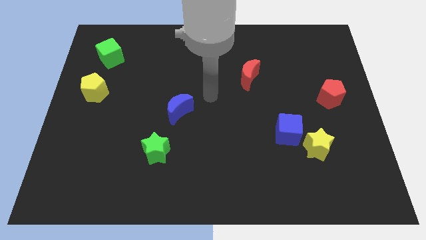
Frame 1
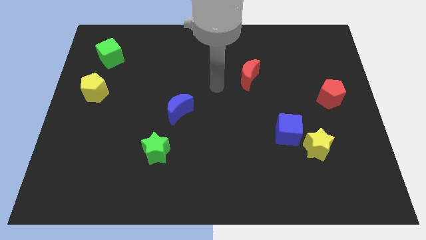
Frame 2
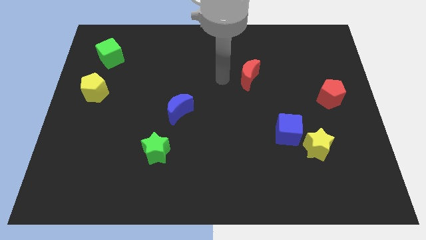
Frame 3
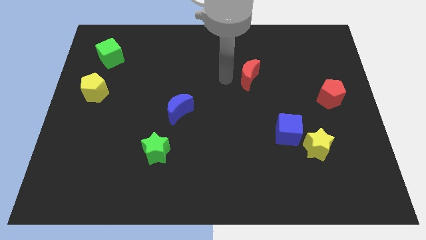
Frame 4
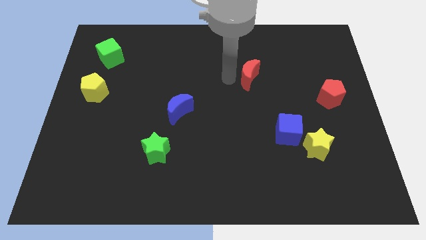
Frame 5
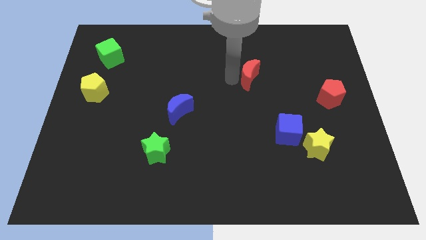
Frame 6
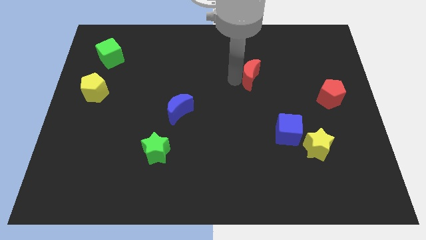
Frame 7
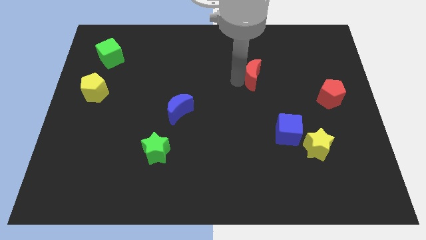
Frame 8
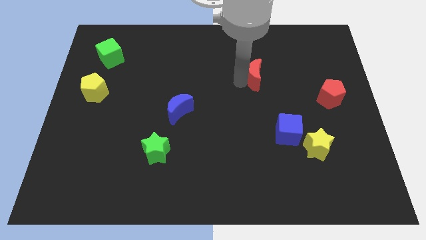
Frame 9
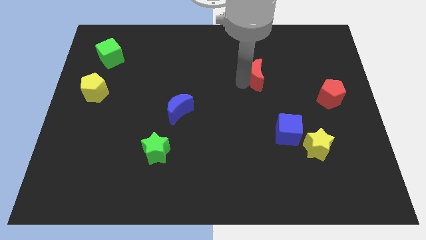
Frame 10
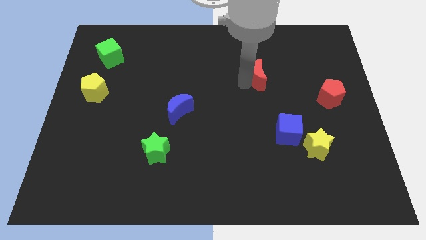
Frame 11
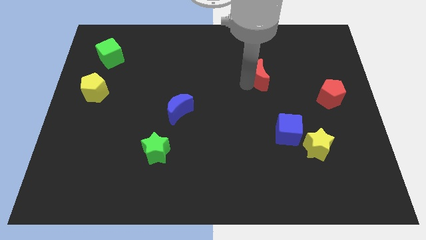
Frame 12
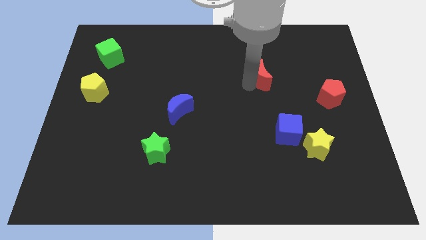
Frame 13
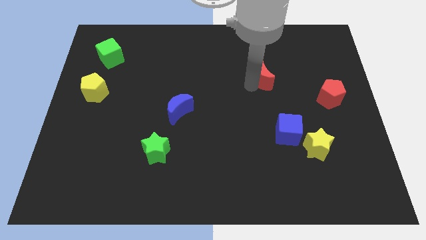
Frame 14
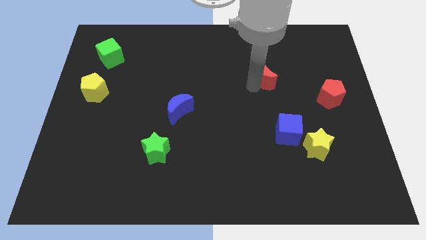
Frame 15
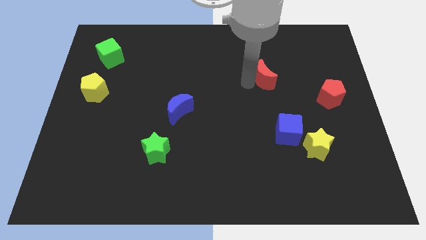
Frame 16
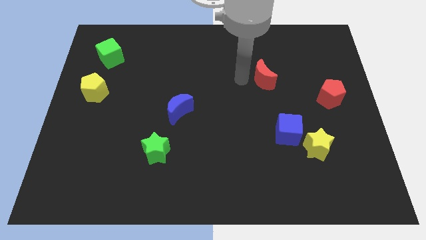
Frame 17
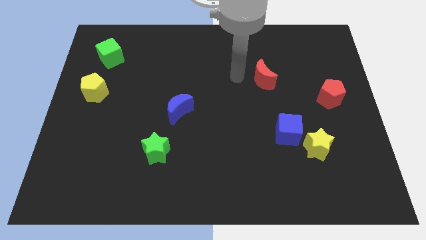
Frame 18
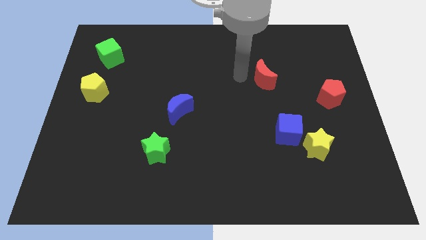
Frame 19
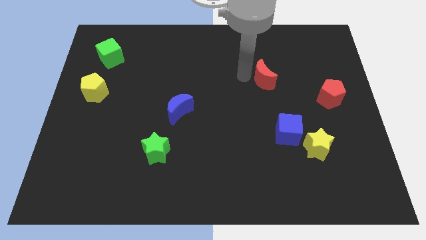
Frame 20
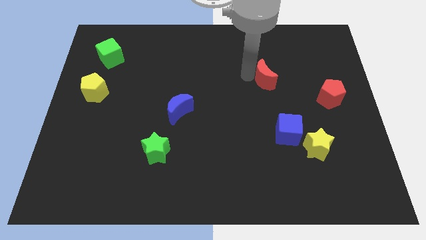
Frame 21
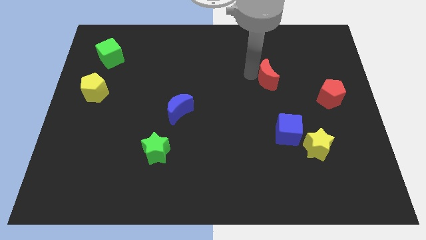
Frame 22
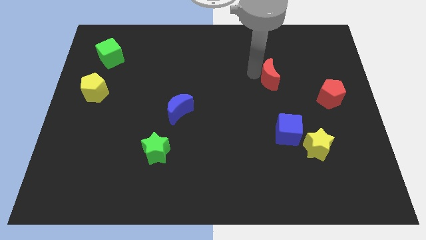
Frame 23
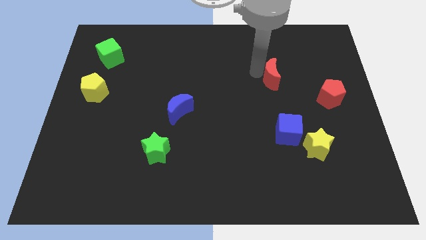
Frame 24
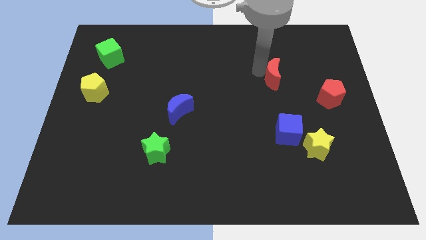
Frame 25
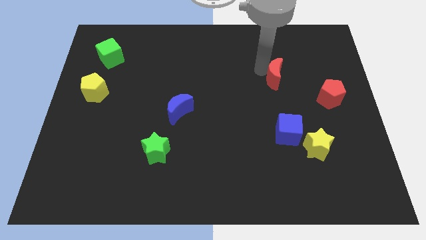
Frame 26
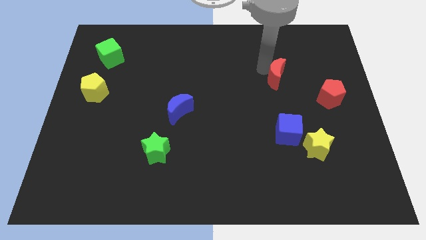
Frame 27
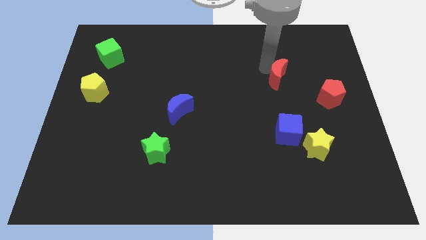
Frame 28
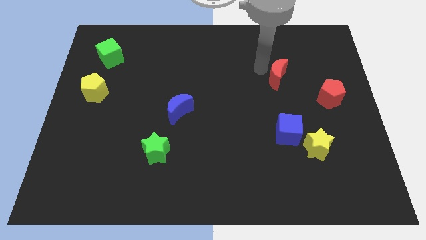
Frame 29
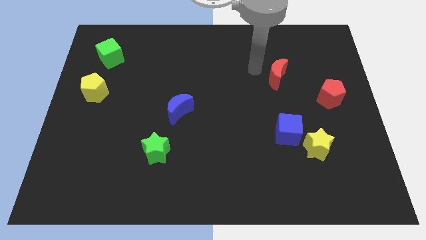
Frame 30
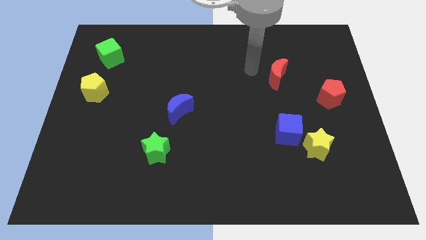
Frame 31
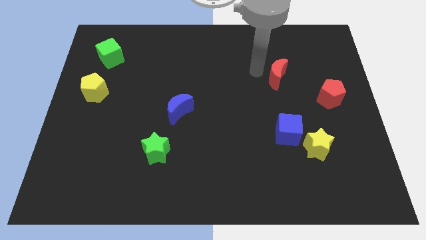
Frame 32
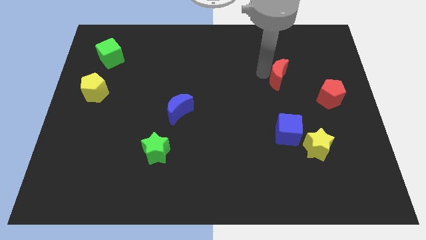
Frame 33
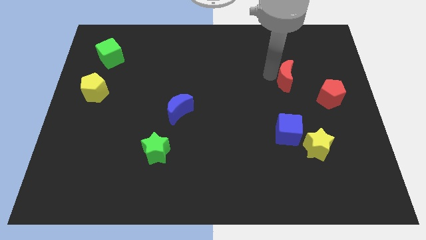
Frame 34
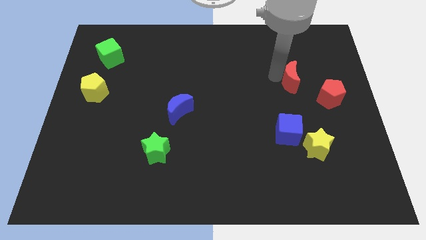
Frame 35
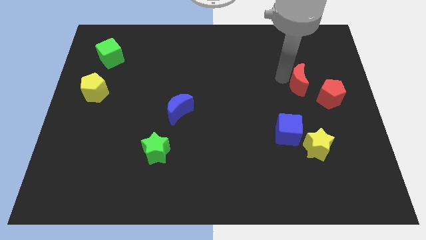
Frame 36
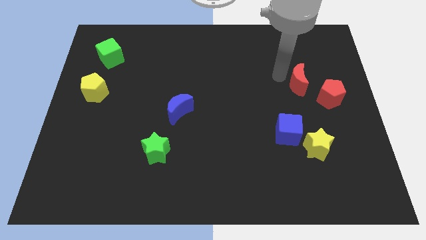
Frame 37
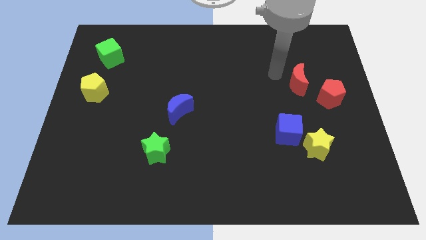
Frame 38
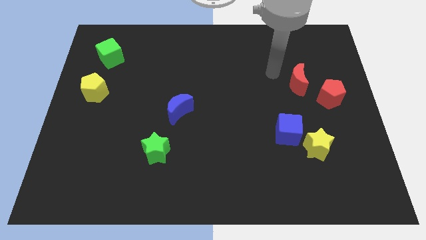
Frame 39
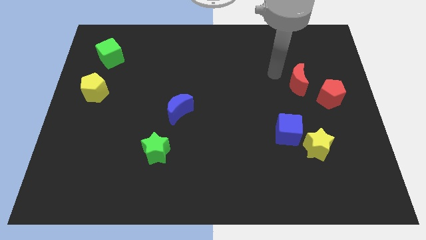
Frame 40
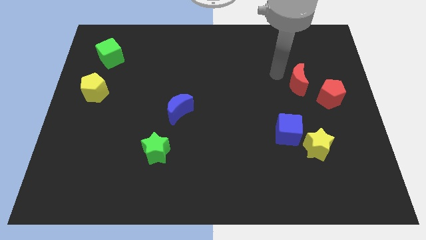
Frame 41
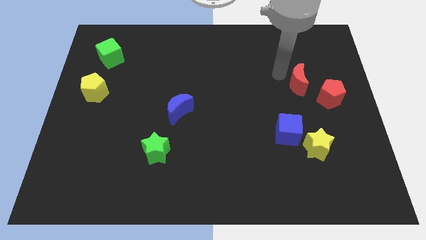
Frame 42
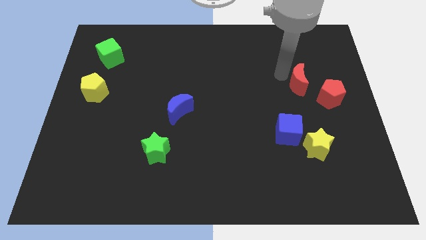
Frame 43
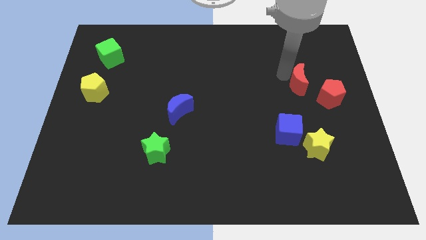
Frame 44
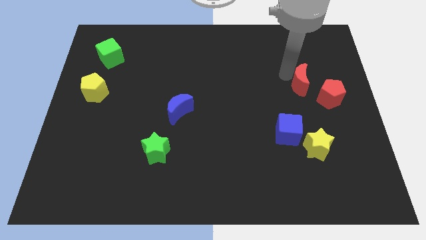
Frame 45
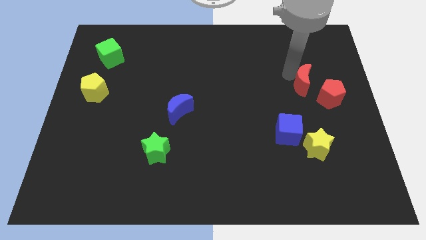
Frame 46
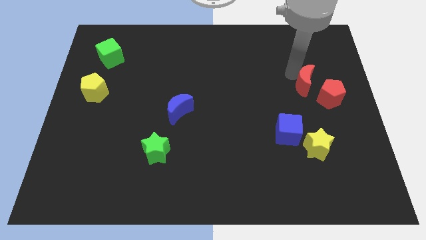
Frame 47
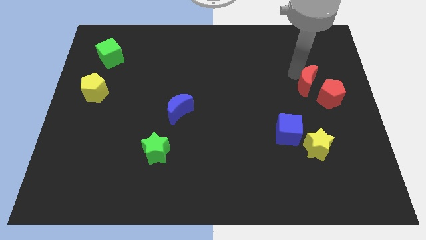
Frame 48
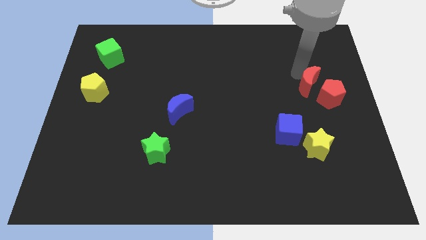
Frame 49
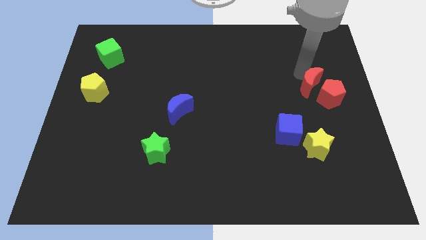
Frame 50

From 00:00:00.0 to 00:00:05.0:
push the red moon to the red pentagon

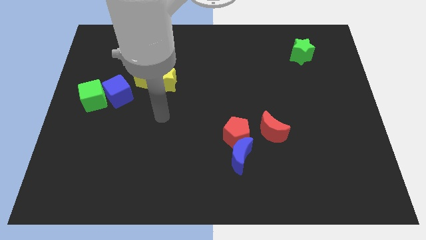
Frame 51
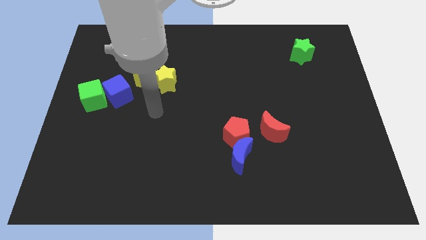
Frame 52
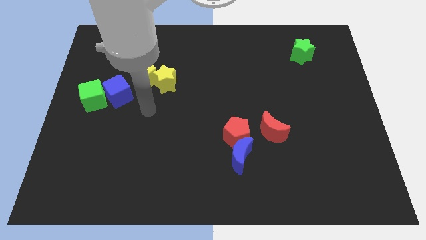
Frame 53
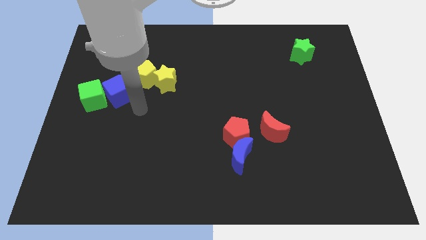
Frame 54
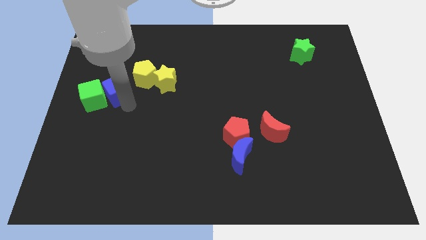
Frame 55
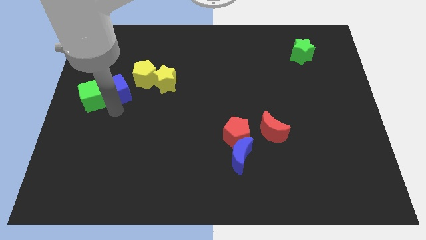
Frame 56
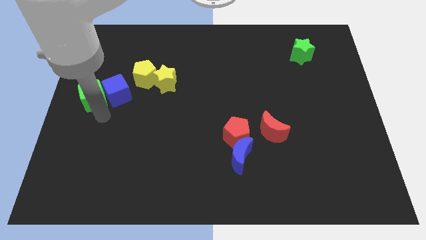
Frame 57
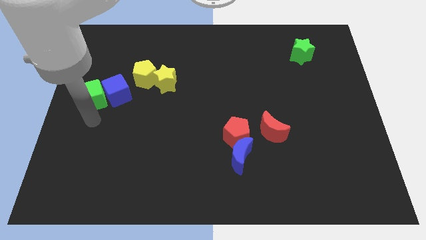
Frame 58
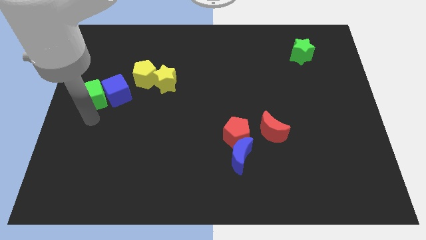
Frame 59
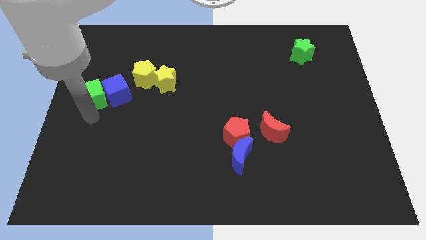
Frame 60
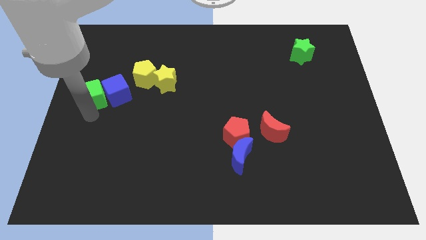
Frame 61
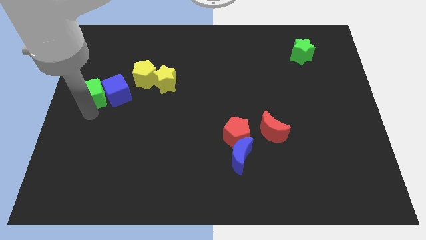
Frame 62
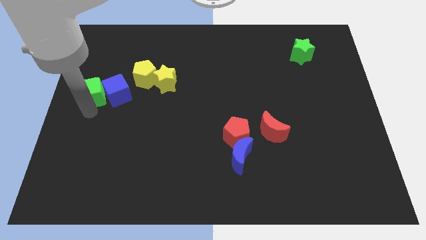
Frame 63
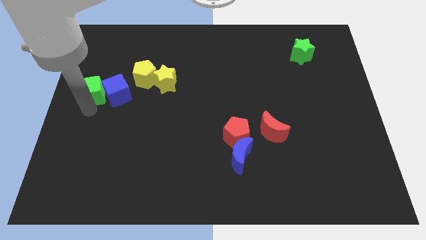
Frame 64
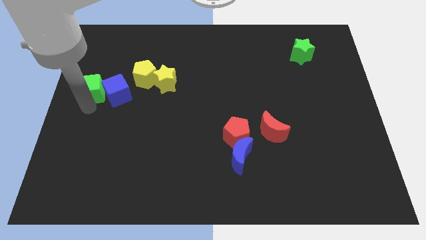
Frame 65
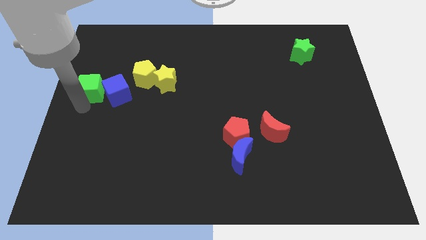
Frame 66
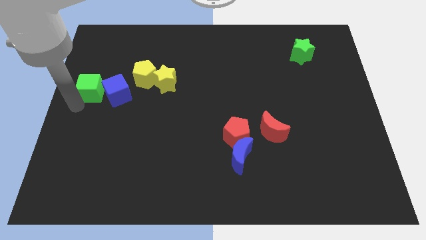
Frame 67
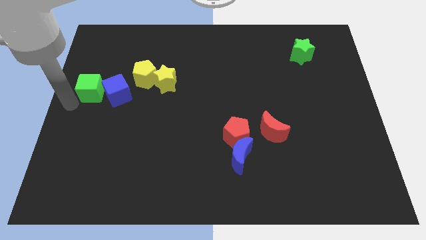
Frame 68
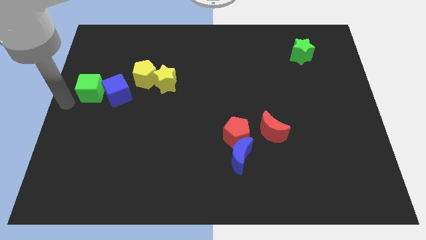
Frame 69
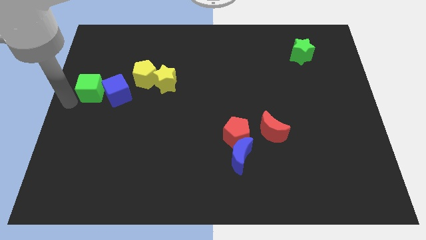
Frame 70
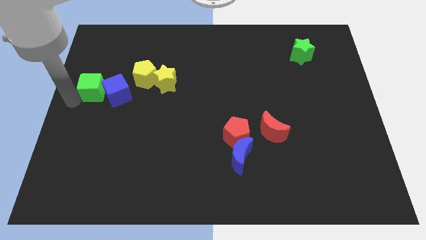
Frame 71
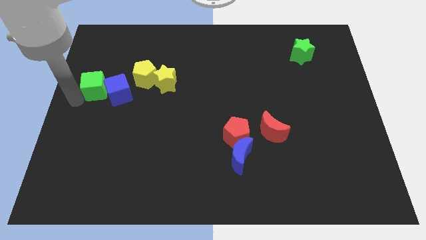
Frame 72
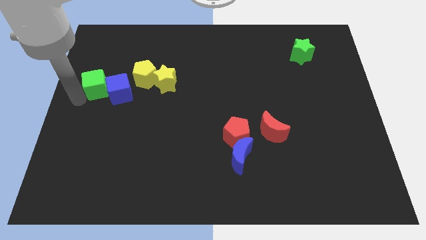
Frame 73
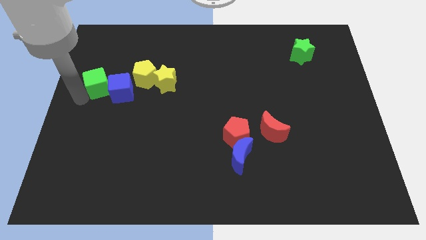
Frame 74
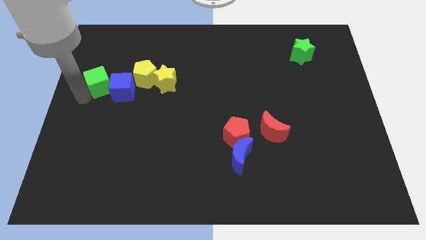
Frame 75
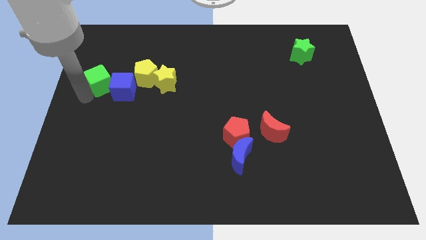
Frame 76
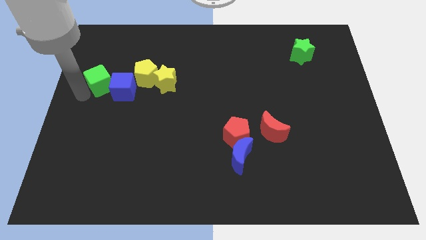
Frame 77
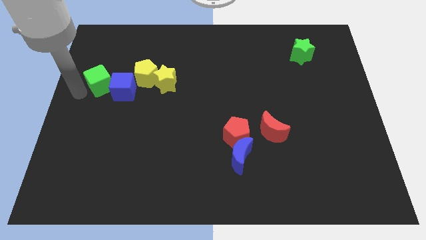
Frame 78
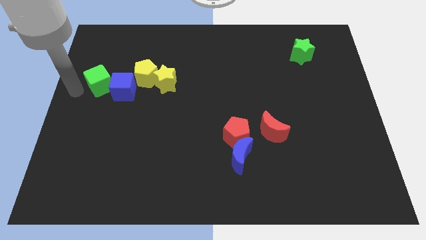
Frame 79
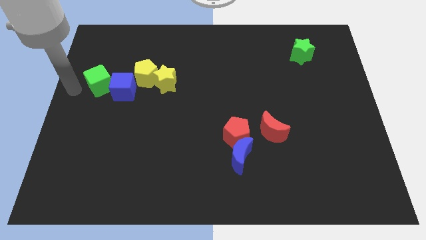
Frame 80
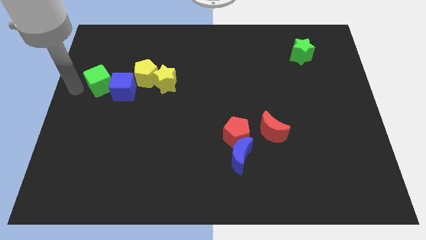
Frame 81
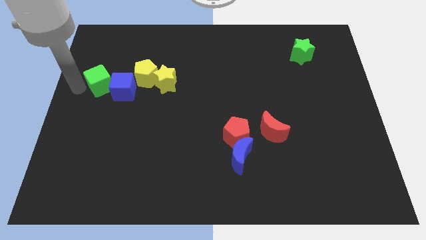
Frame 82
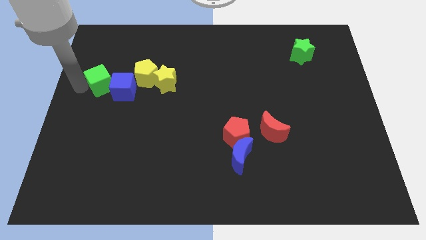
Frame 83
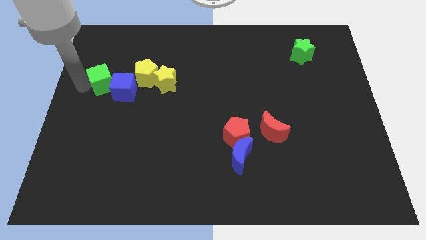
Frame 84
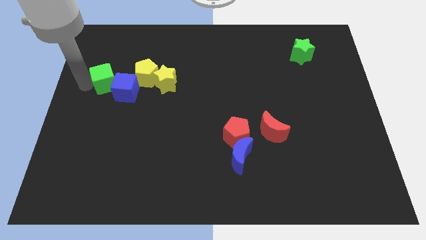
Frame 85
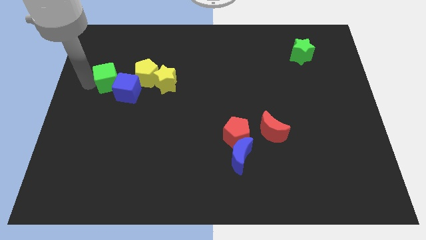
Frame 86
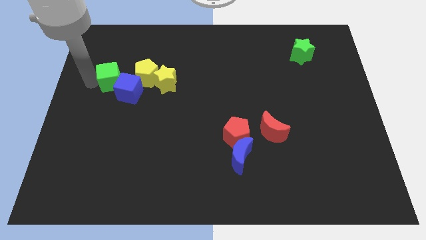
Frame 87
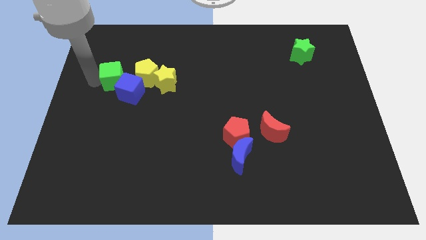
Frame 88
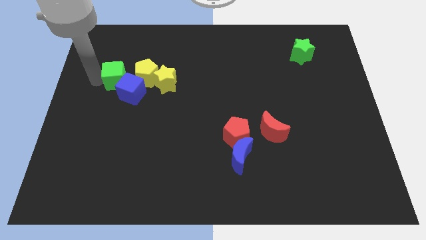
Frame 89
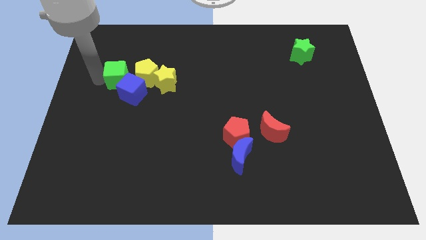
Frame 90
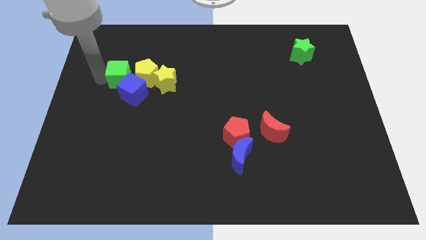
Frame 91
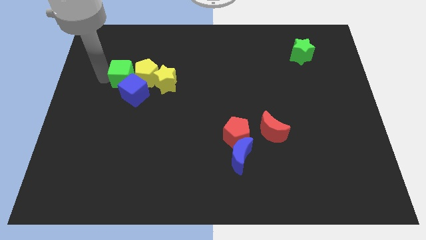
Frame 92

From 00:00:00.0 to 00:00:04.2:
slide the green cube next to the yellow pentagon
